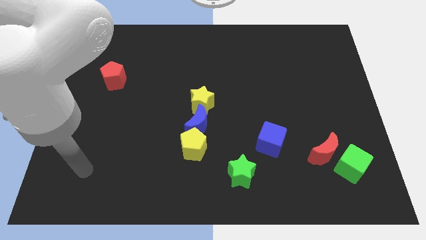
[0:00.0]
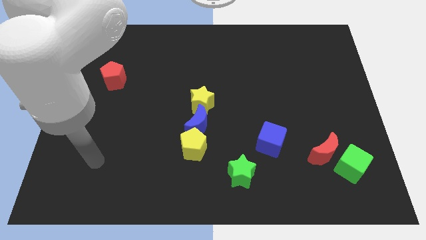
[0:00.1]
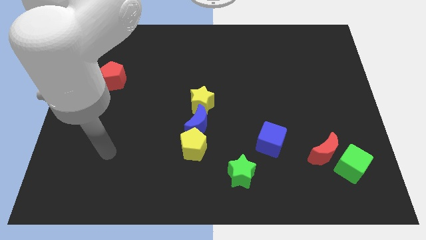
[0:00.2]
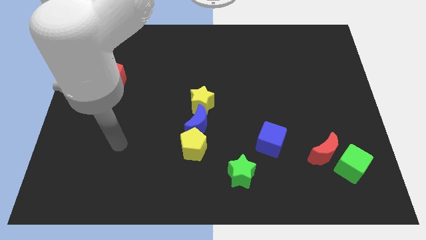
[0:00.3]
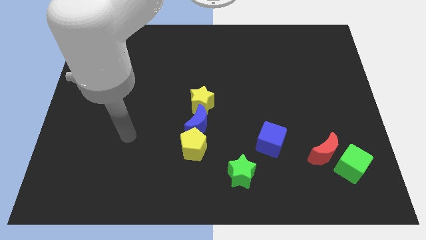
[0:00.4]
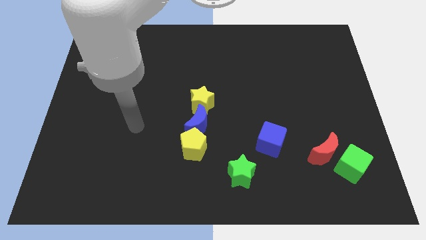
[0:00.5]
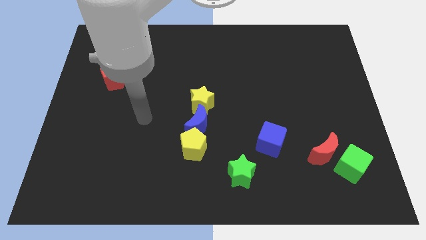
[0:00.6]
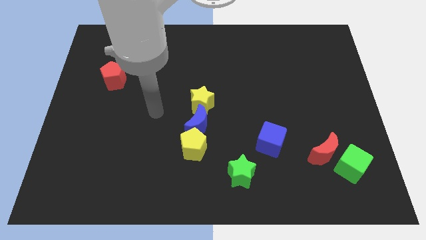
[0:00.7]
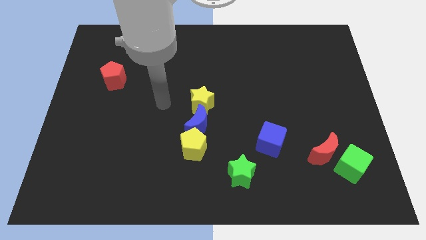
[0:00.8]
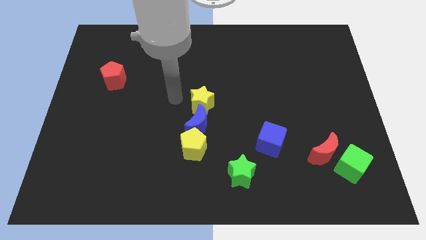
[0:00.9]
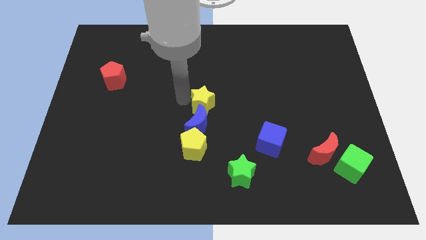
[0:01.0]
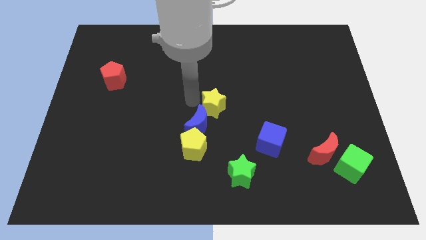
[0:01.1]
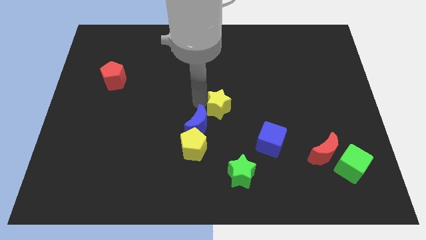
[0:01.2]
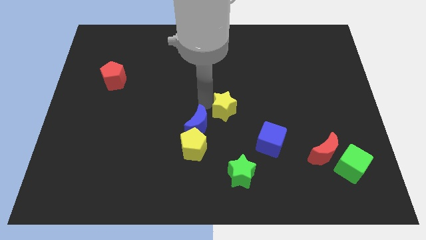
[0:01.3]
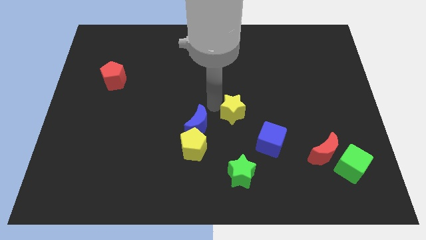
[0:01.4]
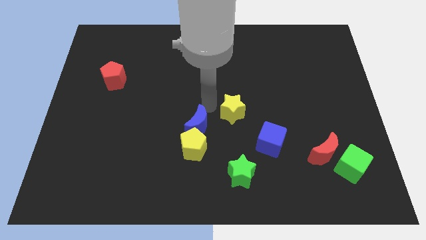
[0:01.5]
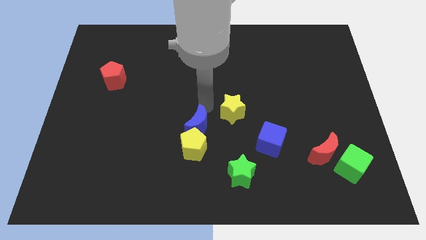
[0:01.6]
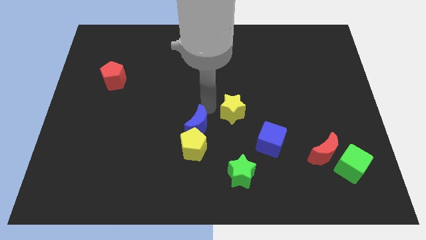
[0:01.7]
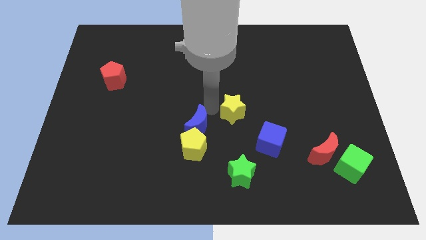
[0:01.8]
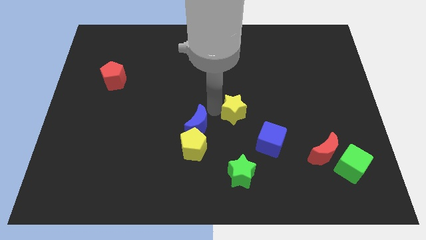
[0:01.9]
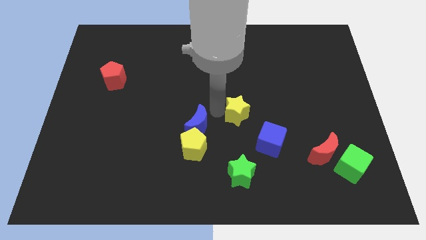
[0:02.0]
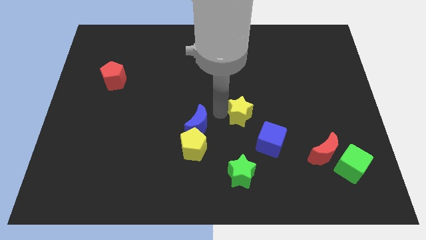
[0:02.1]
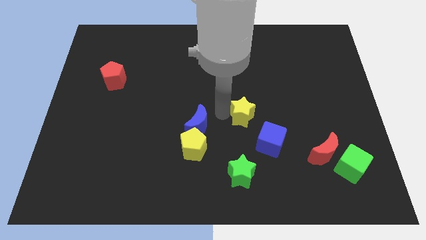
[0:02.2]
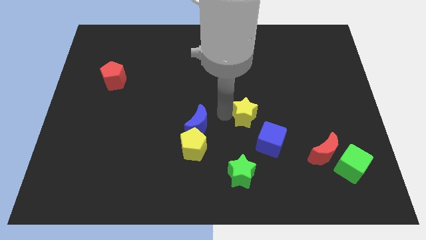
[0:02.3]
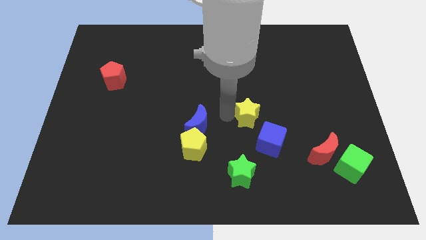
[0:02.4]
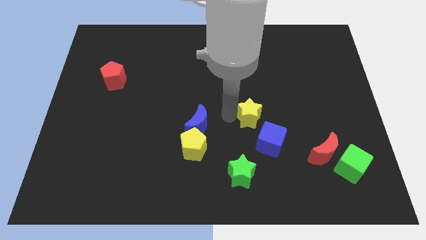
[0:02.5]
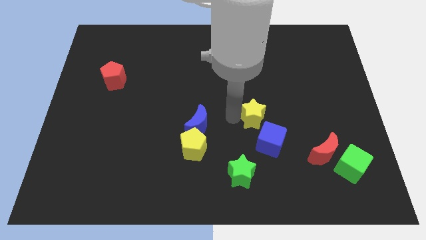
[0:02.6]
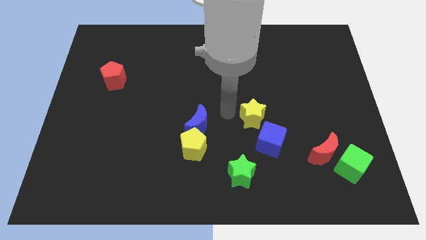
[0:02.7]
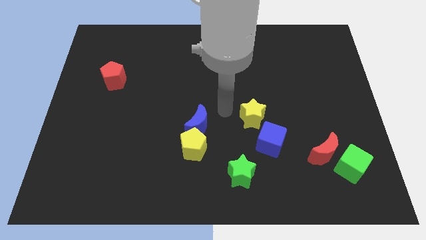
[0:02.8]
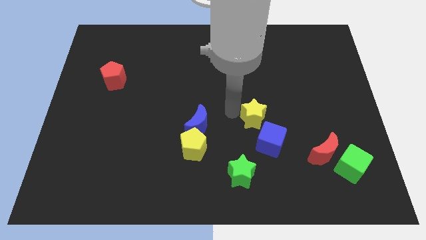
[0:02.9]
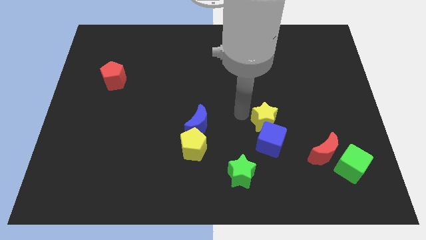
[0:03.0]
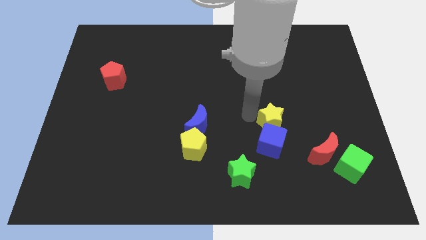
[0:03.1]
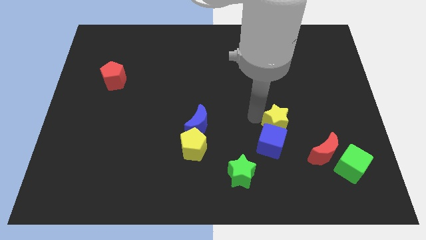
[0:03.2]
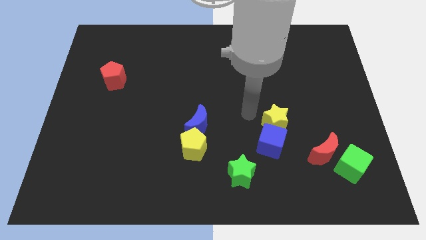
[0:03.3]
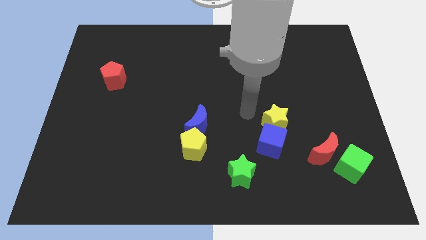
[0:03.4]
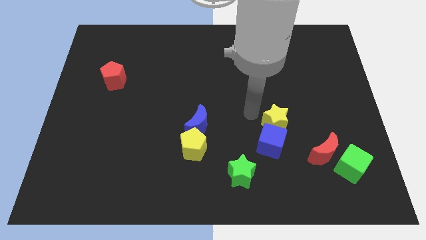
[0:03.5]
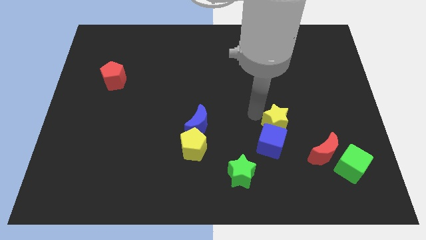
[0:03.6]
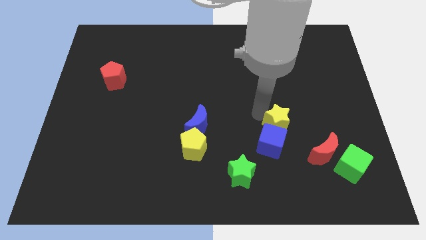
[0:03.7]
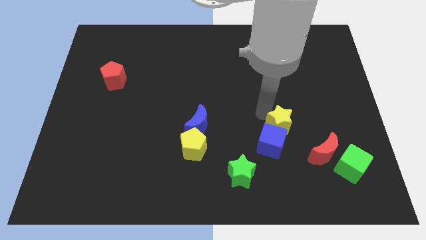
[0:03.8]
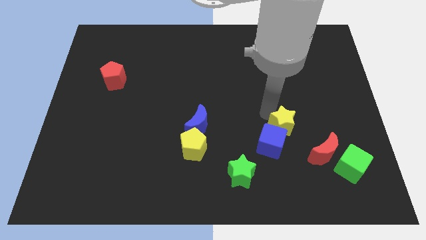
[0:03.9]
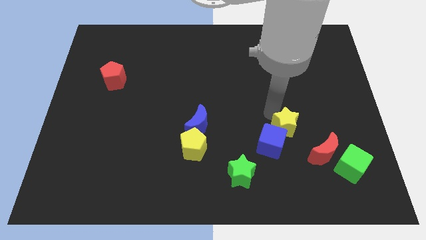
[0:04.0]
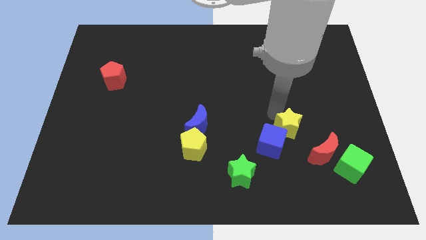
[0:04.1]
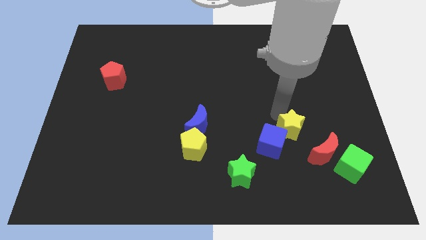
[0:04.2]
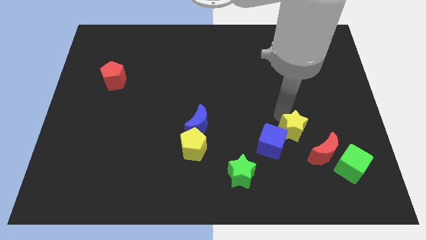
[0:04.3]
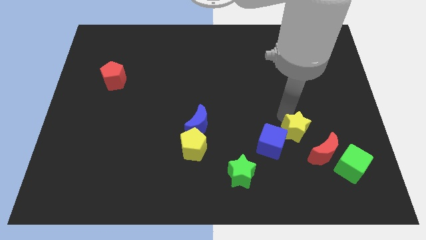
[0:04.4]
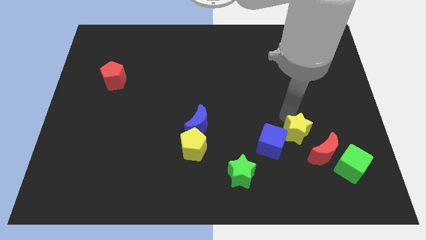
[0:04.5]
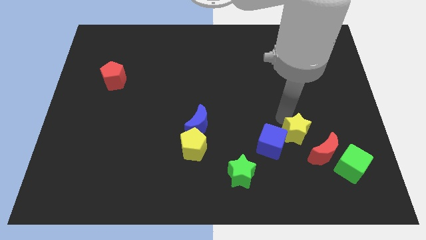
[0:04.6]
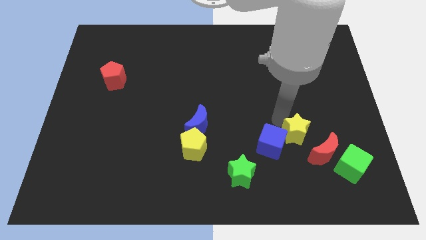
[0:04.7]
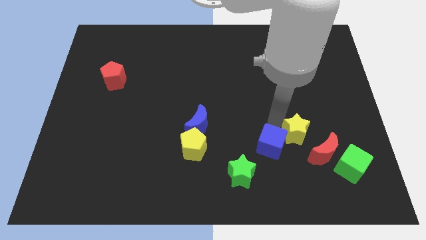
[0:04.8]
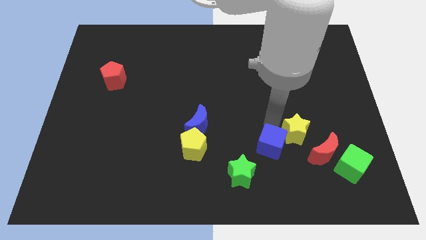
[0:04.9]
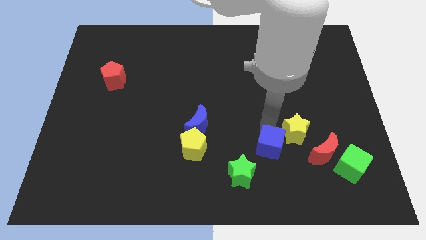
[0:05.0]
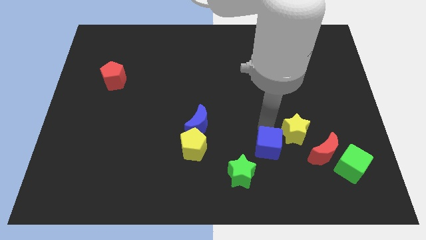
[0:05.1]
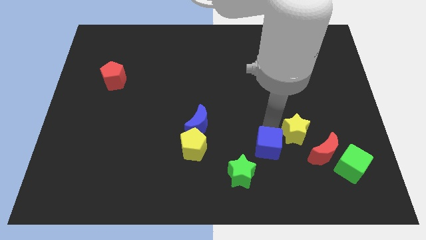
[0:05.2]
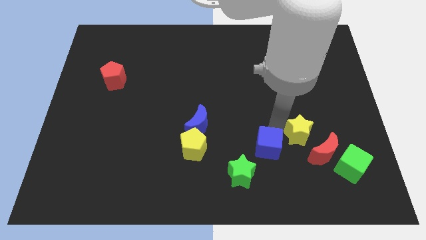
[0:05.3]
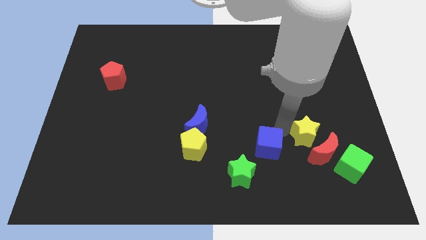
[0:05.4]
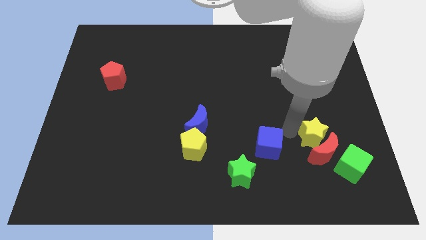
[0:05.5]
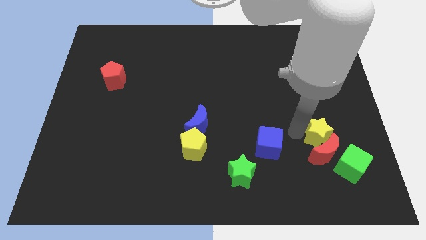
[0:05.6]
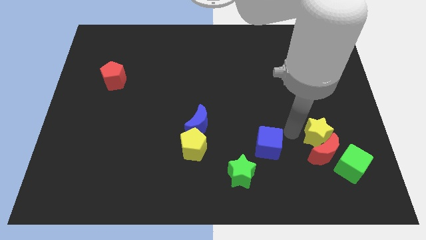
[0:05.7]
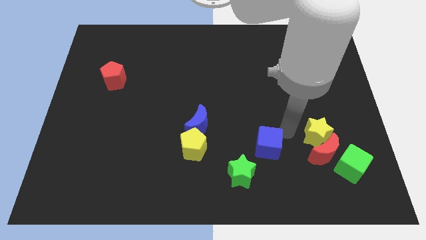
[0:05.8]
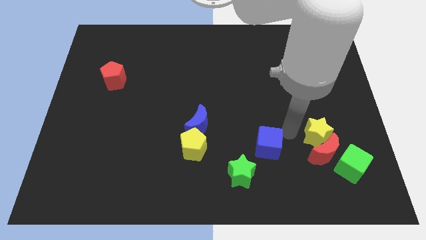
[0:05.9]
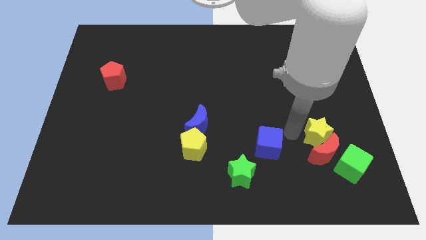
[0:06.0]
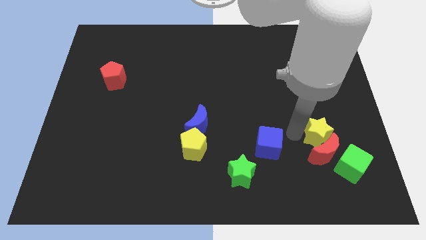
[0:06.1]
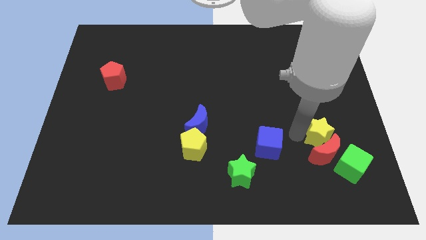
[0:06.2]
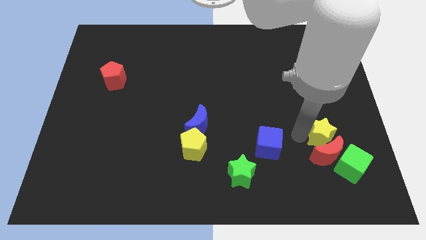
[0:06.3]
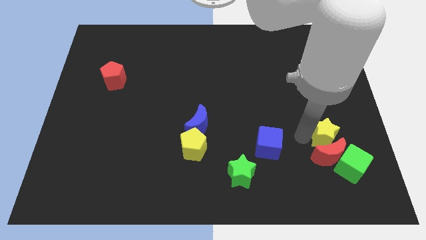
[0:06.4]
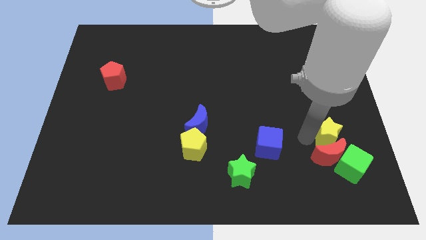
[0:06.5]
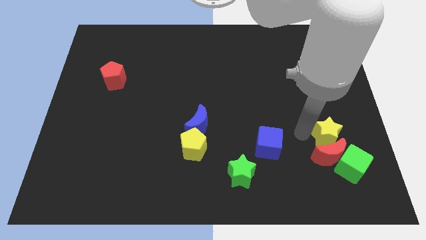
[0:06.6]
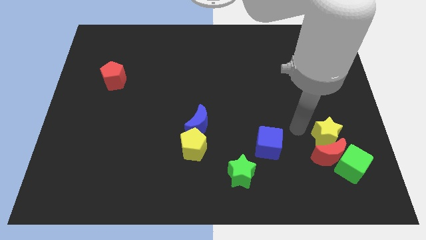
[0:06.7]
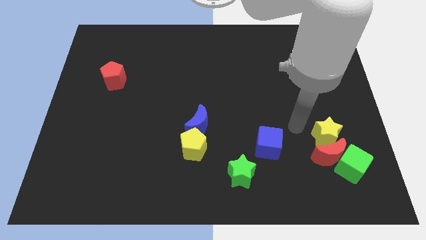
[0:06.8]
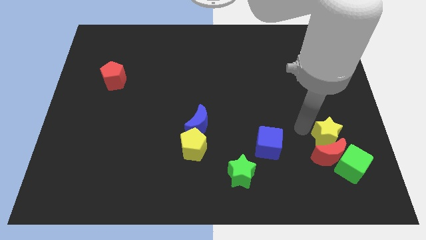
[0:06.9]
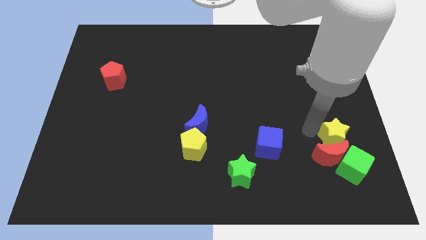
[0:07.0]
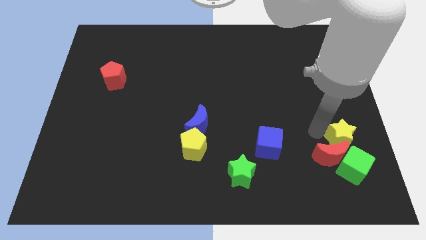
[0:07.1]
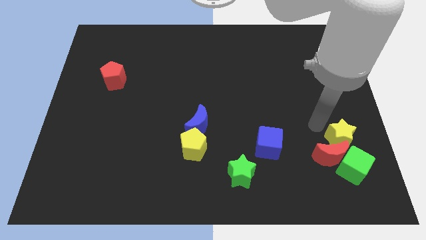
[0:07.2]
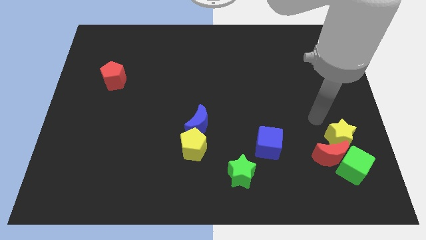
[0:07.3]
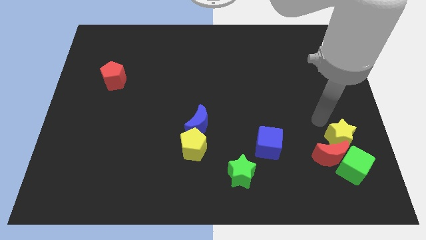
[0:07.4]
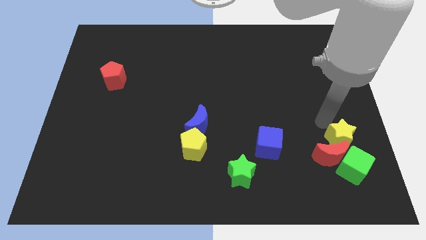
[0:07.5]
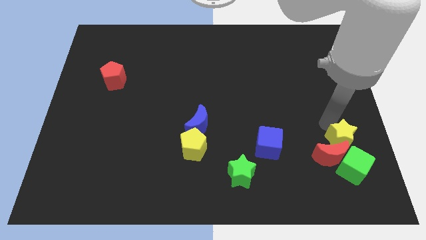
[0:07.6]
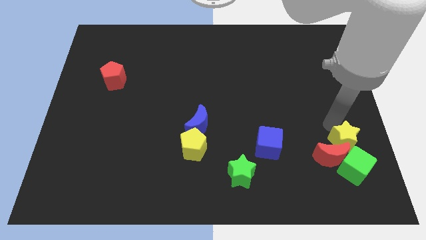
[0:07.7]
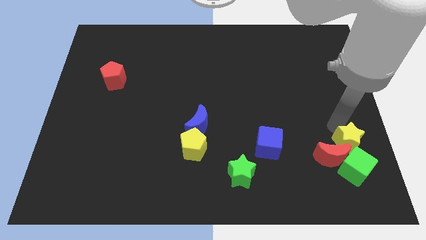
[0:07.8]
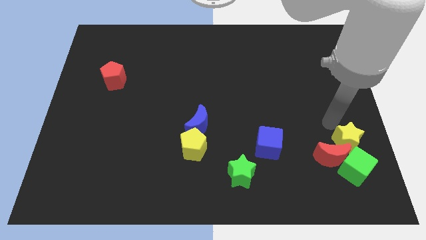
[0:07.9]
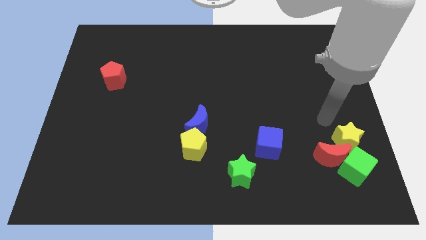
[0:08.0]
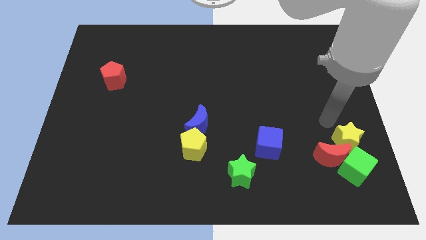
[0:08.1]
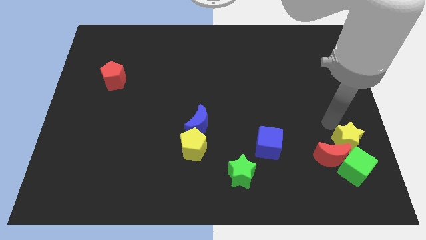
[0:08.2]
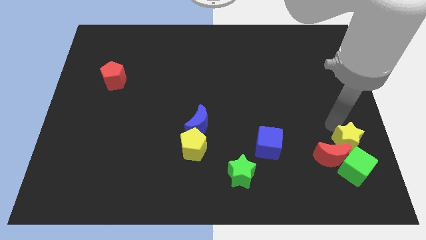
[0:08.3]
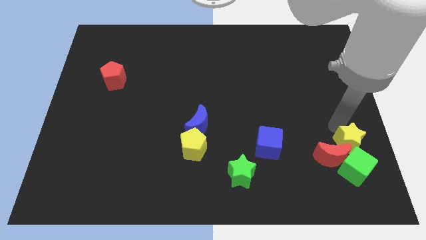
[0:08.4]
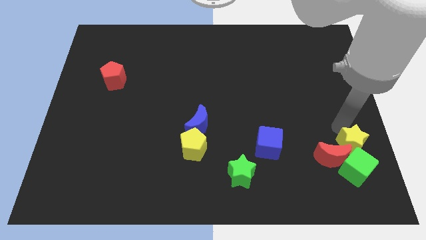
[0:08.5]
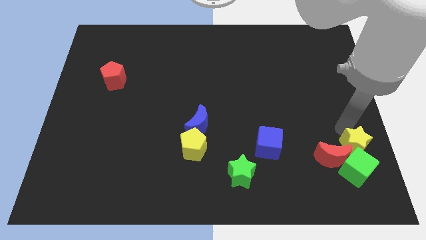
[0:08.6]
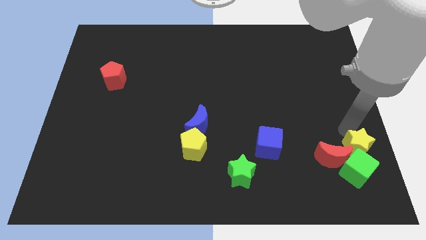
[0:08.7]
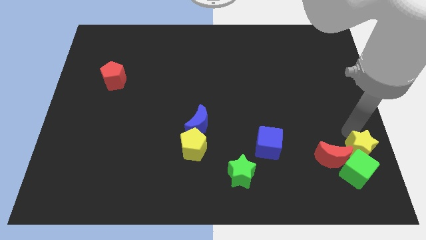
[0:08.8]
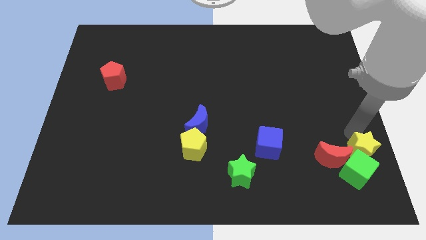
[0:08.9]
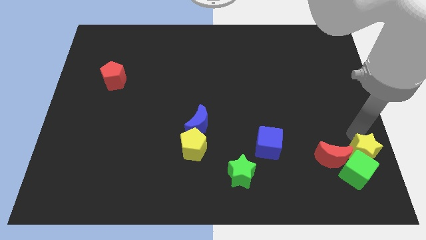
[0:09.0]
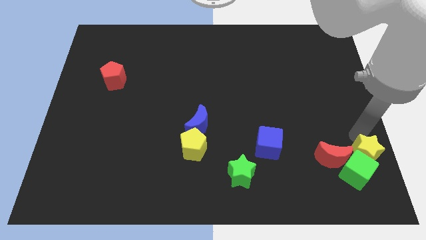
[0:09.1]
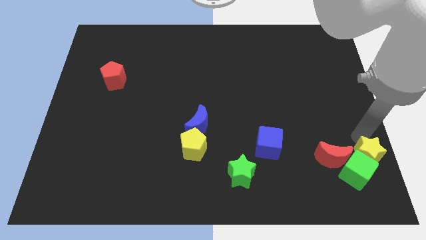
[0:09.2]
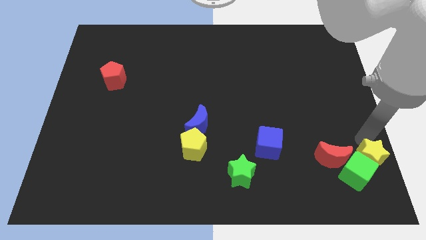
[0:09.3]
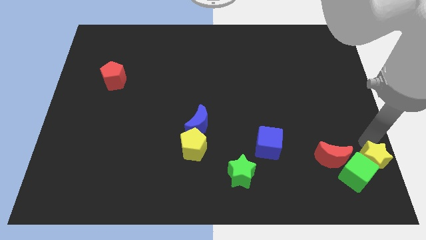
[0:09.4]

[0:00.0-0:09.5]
slide the yellow star to the lower right corner
